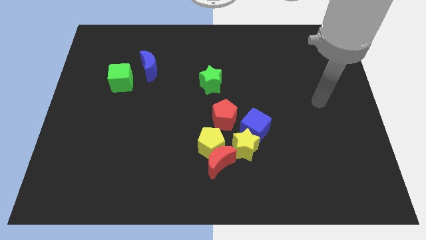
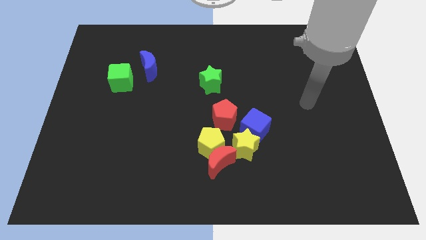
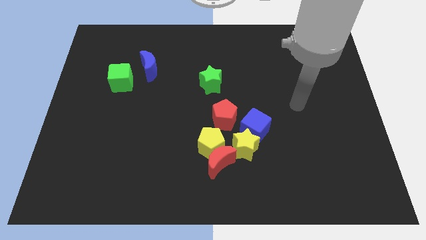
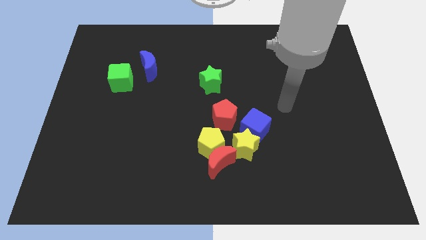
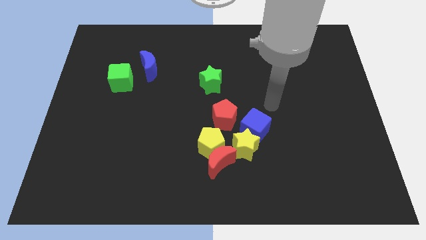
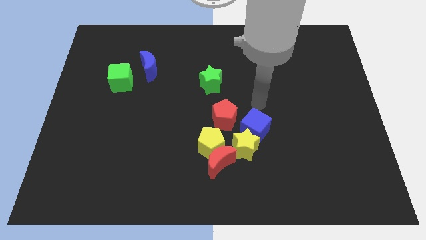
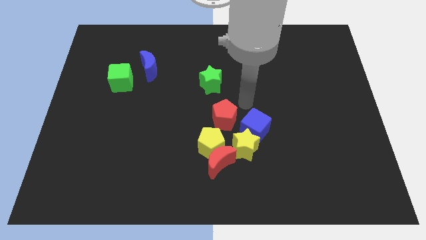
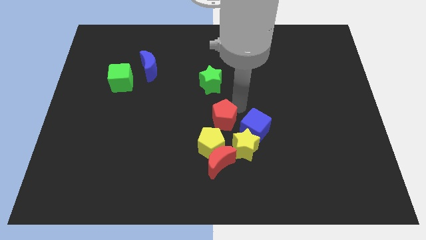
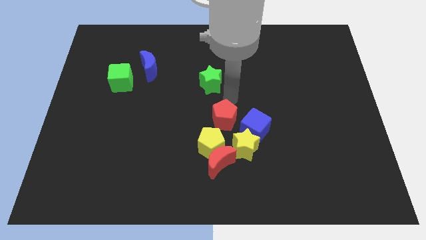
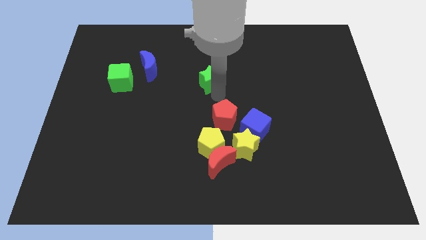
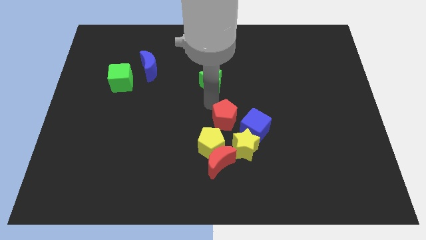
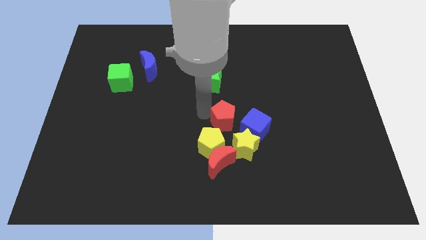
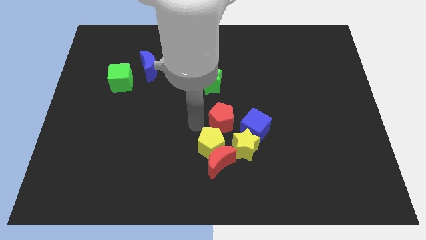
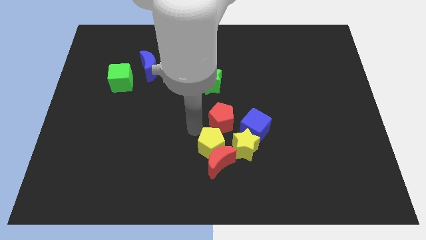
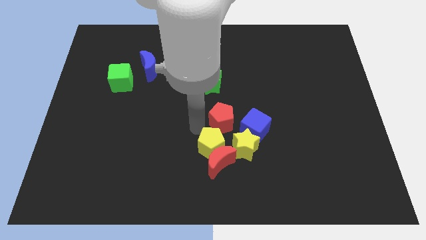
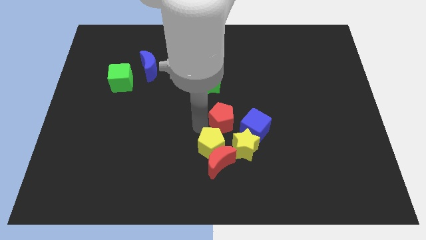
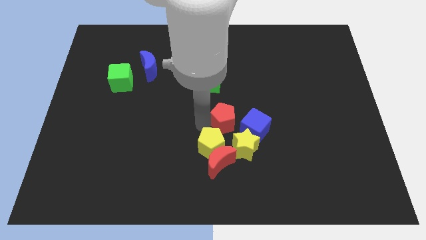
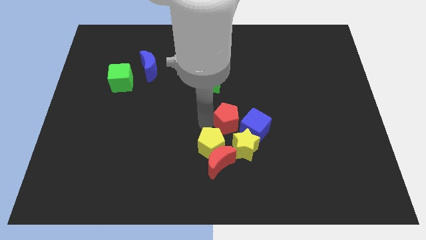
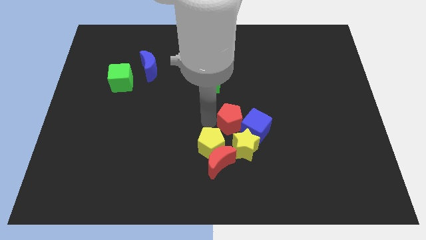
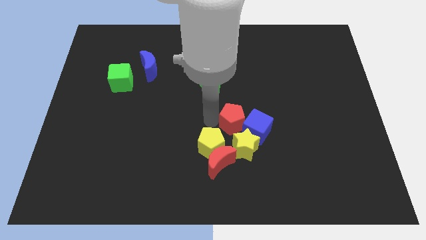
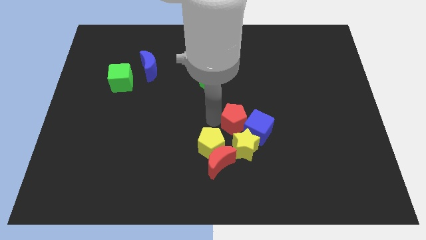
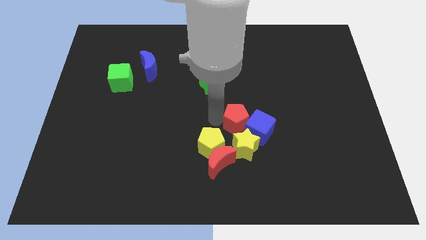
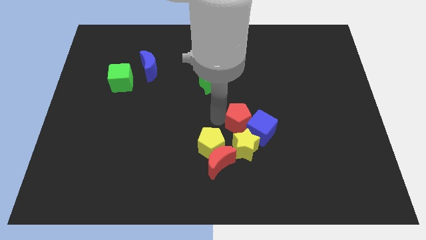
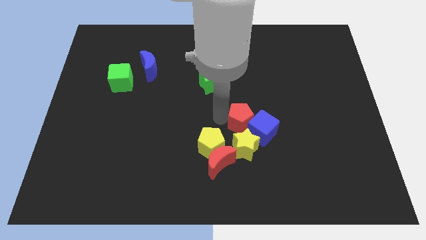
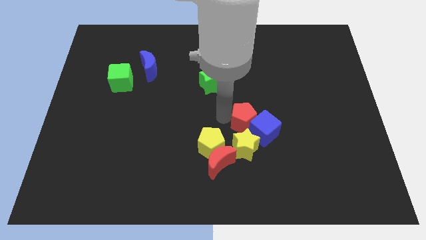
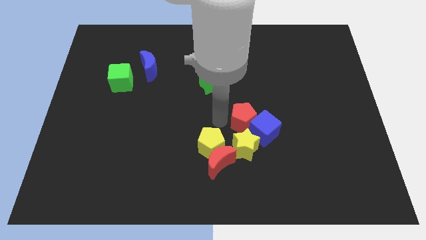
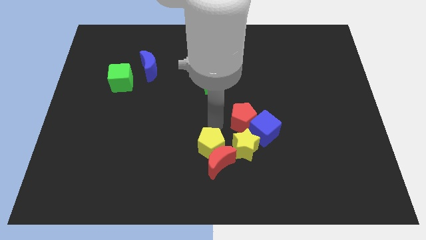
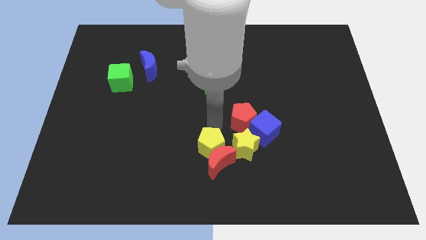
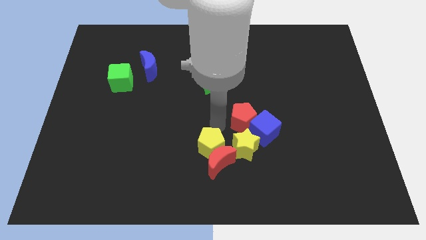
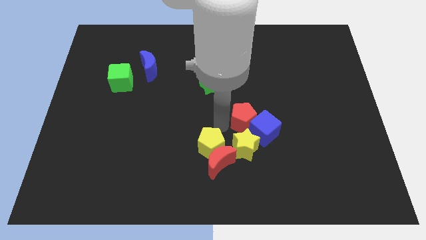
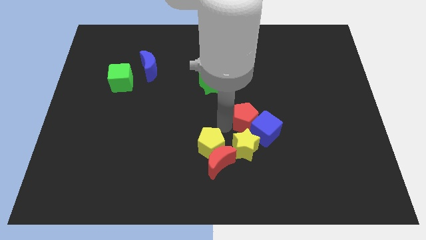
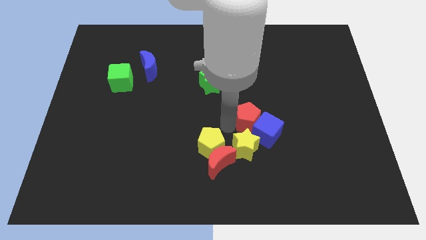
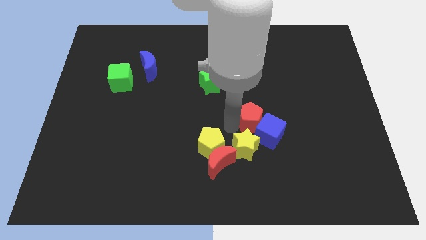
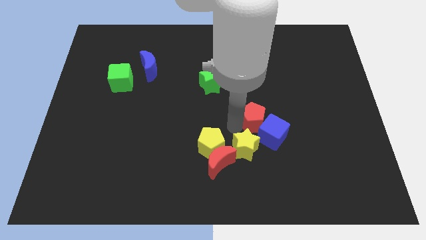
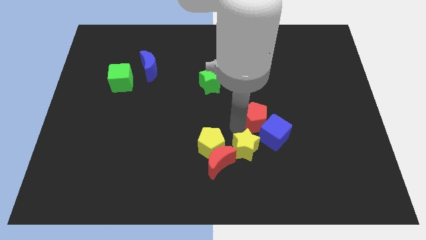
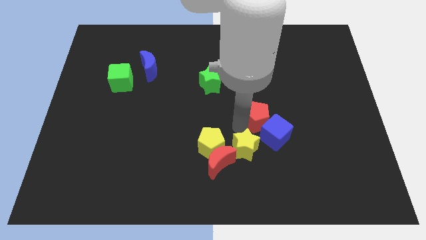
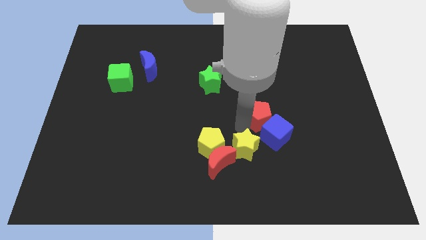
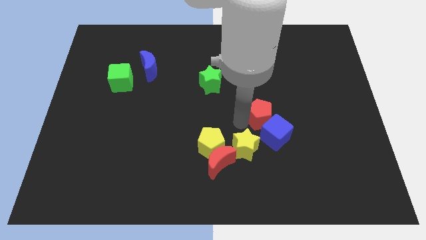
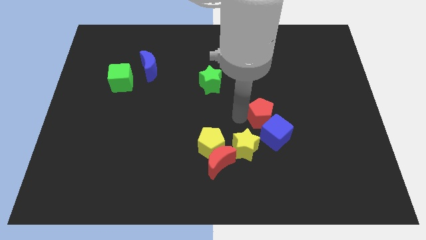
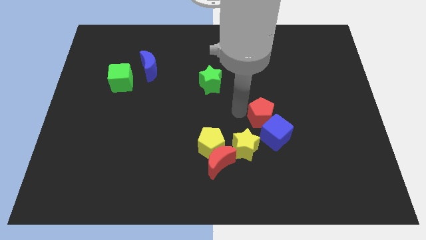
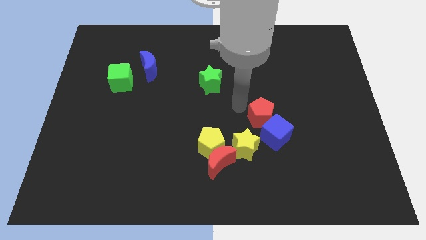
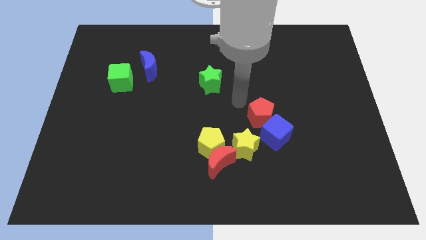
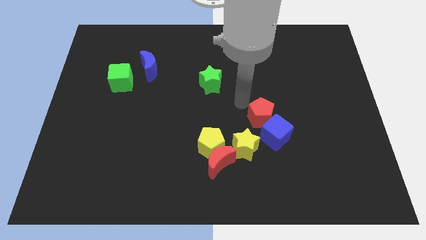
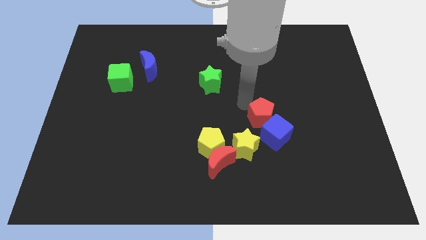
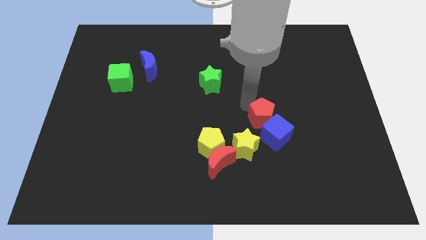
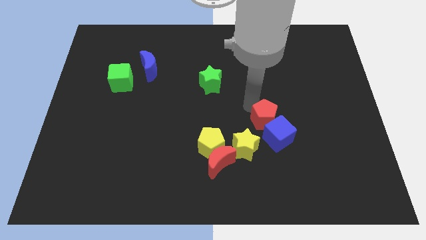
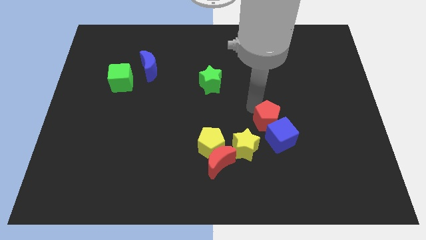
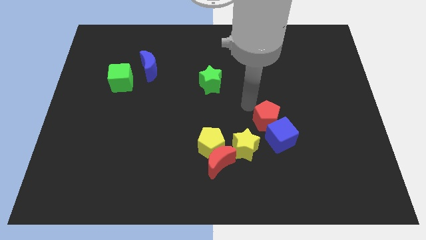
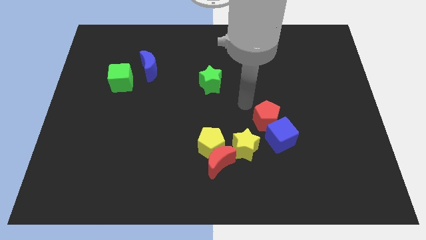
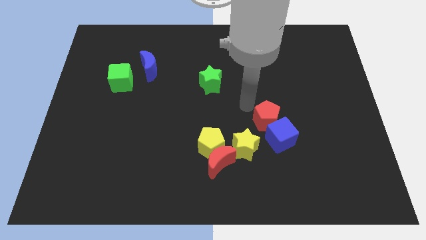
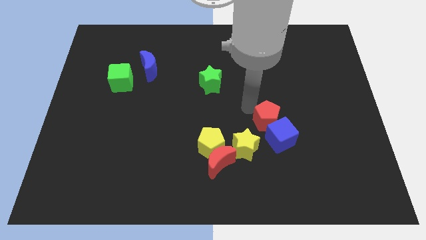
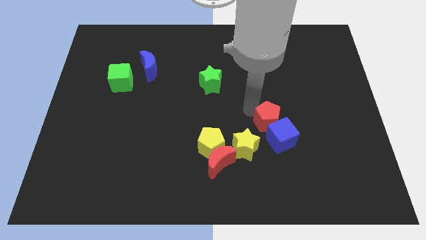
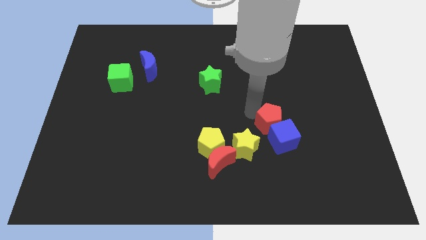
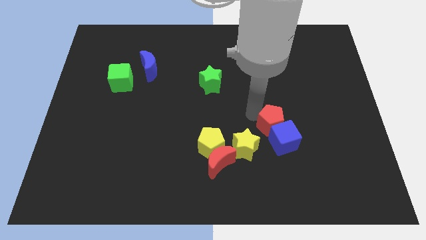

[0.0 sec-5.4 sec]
push the red pentagon a bit downwards and right diagonally

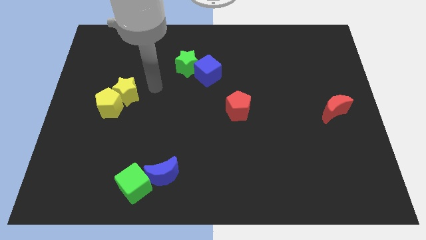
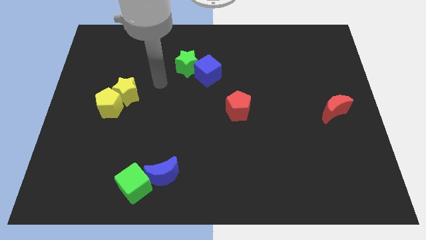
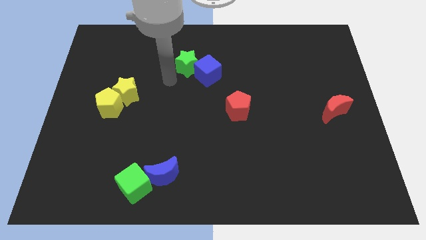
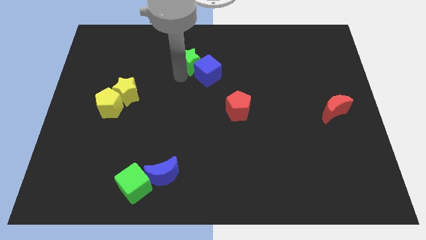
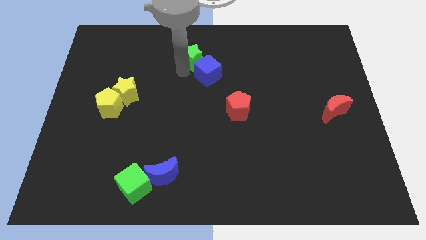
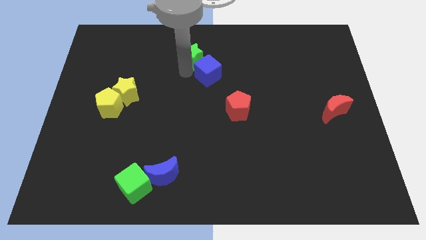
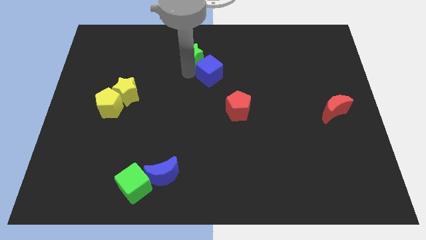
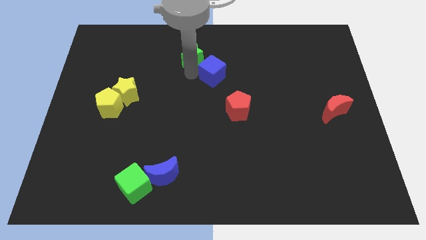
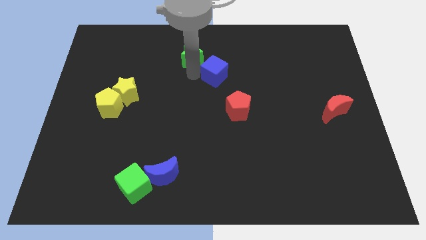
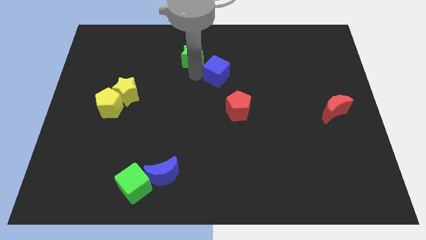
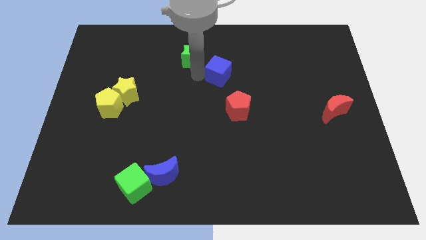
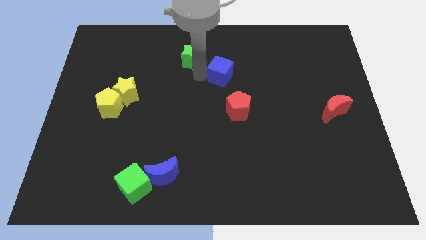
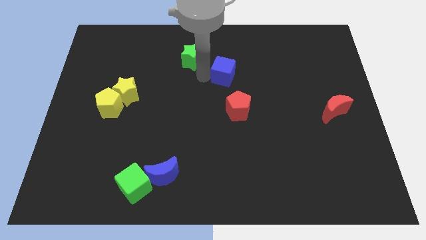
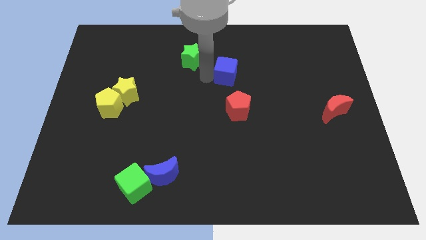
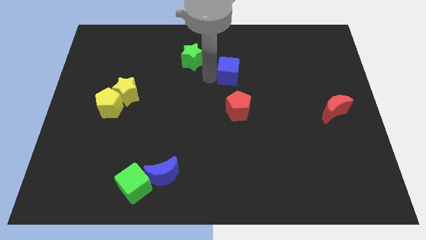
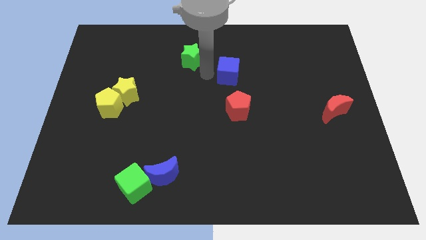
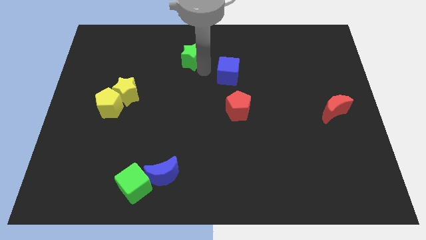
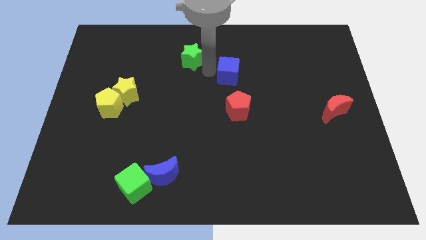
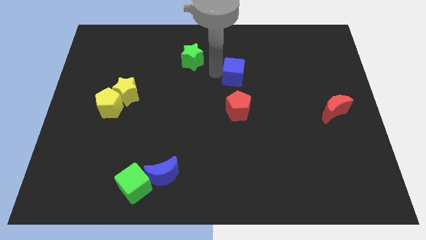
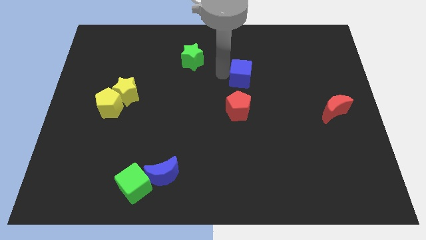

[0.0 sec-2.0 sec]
move the blue cube a bit right

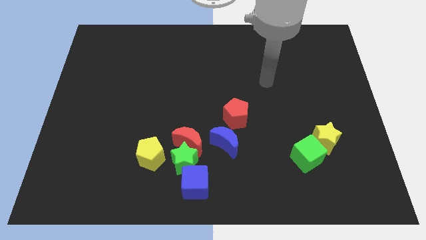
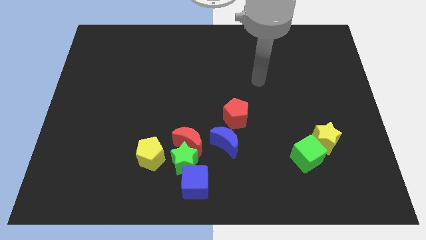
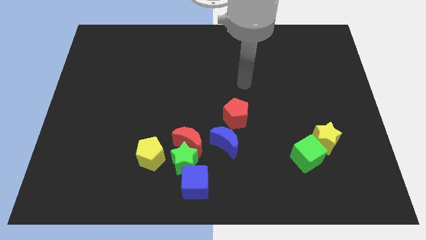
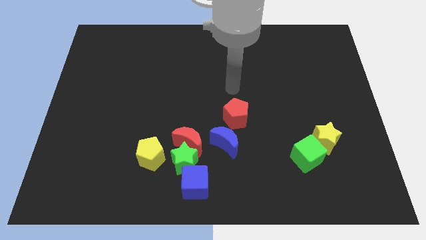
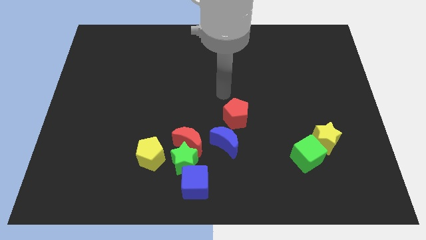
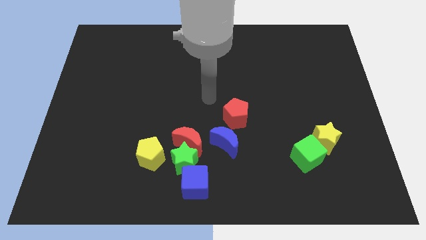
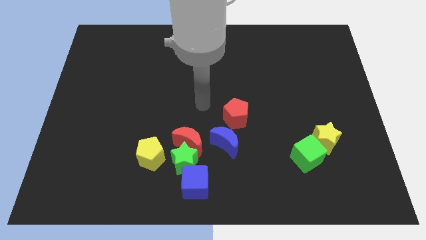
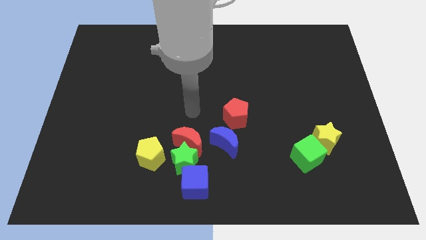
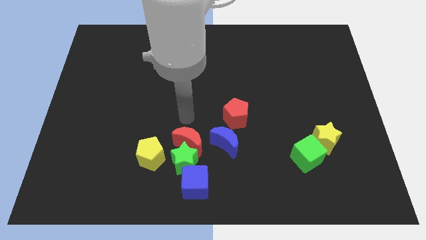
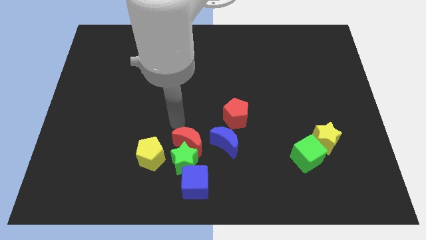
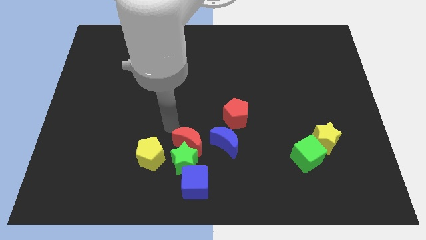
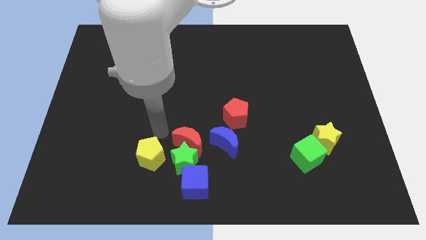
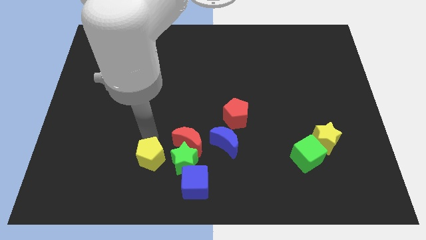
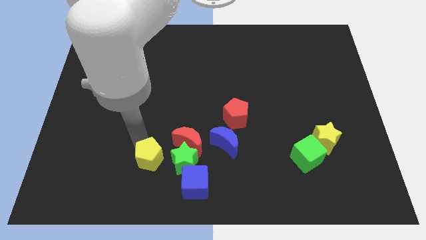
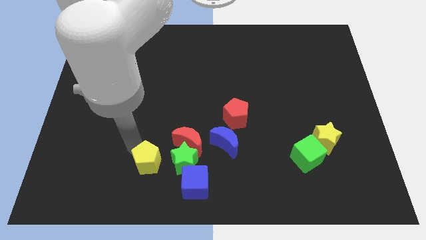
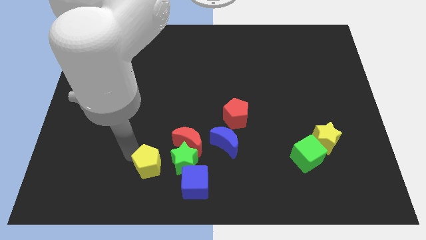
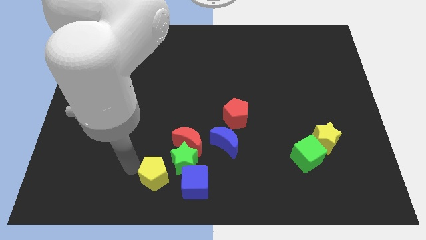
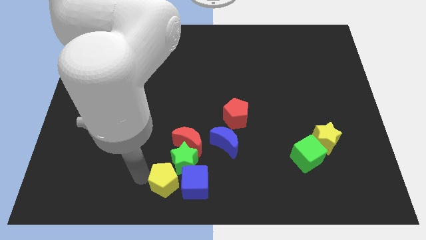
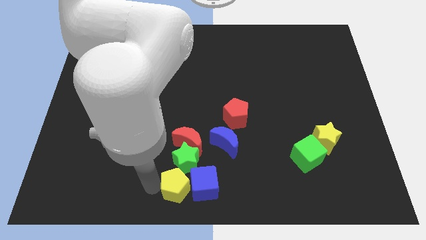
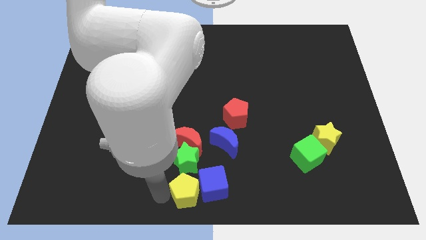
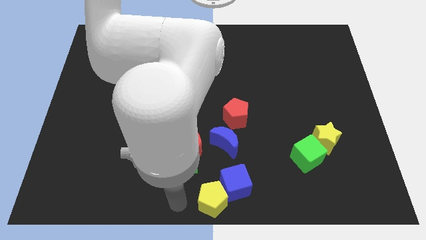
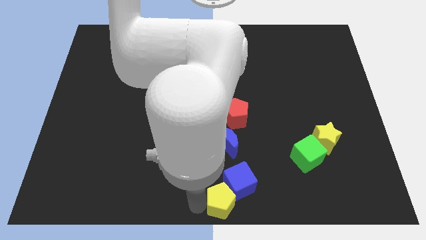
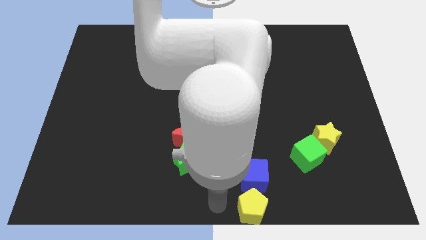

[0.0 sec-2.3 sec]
move the blue cube a little bit upwards and then right
